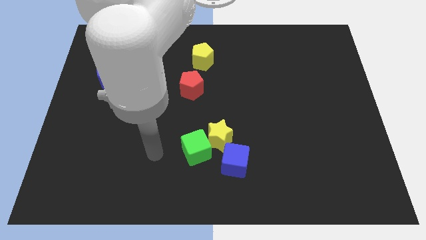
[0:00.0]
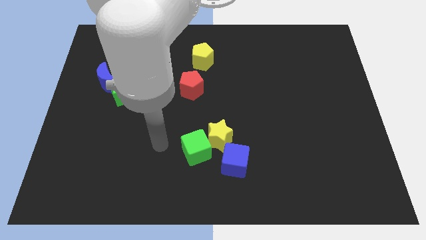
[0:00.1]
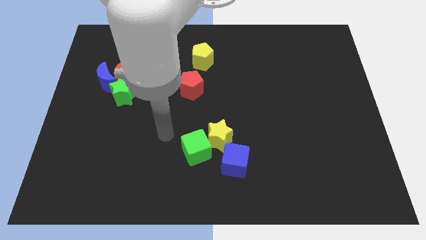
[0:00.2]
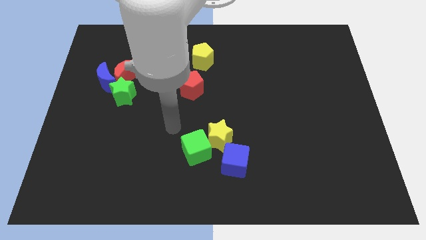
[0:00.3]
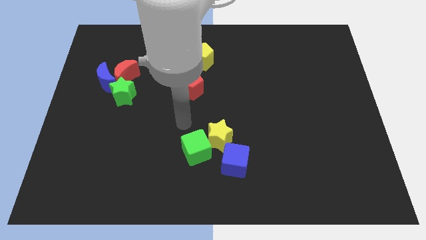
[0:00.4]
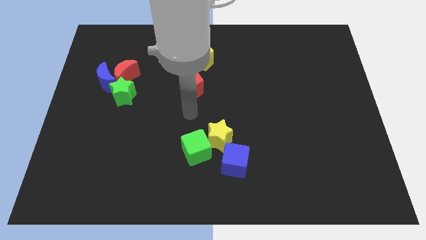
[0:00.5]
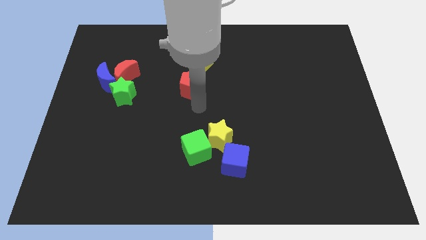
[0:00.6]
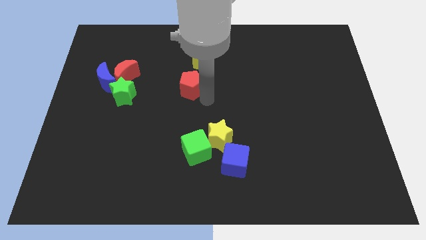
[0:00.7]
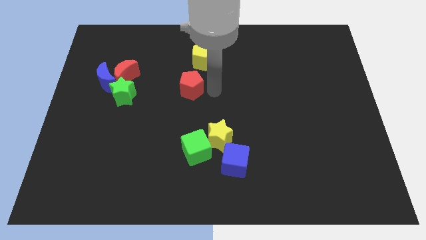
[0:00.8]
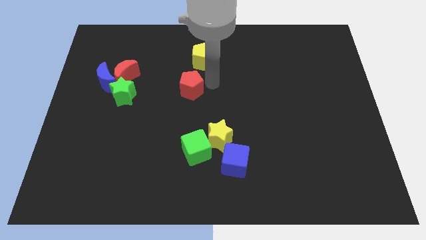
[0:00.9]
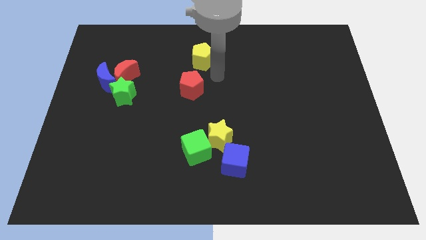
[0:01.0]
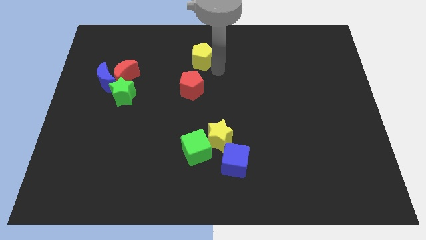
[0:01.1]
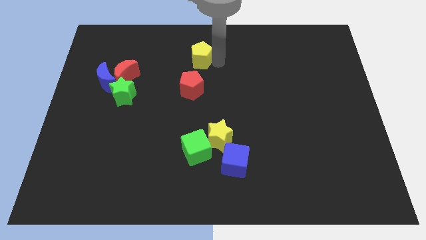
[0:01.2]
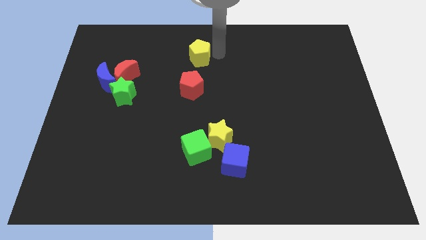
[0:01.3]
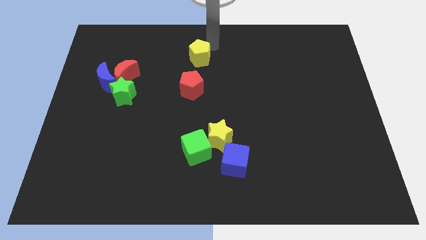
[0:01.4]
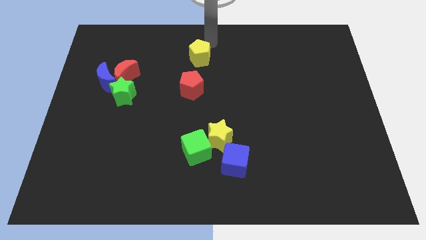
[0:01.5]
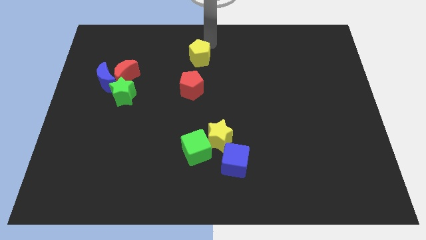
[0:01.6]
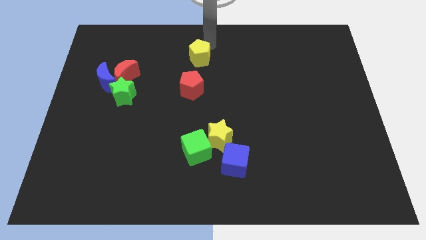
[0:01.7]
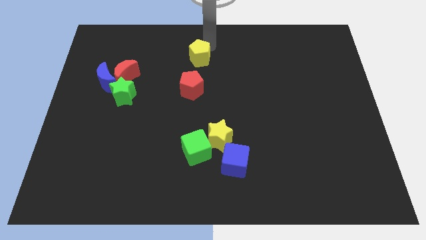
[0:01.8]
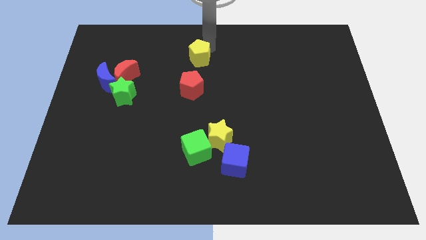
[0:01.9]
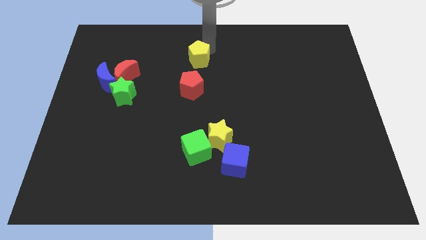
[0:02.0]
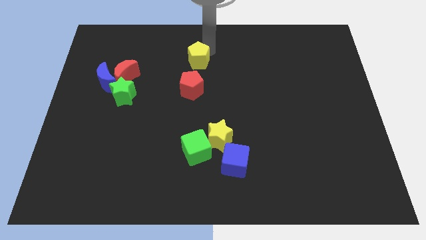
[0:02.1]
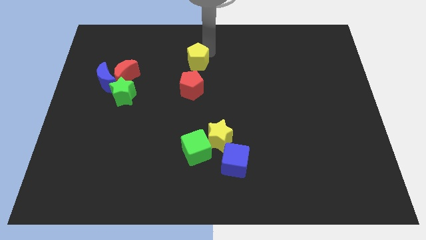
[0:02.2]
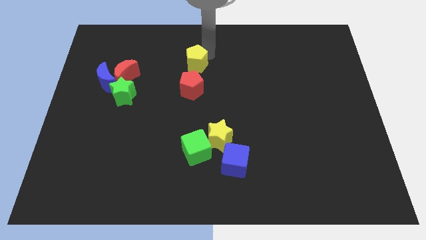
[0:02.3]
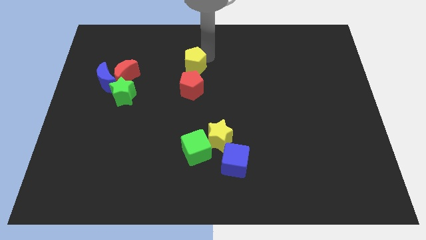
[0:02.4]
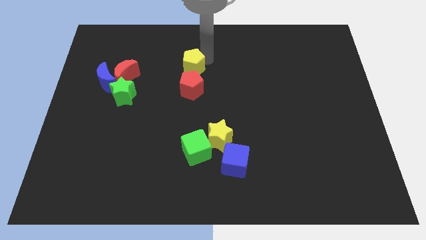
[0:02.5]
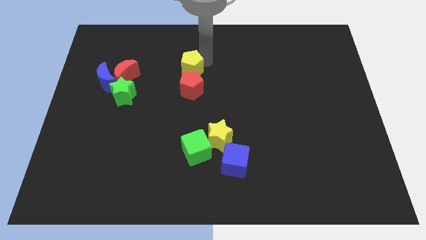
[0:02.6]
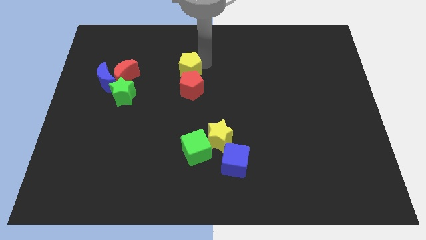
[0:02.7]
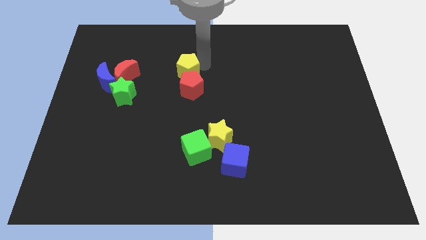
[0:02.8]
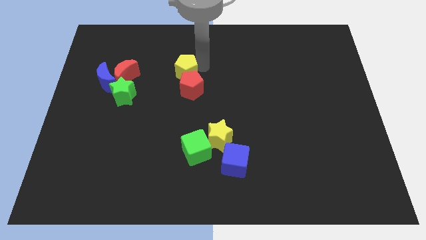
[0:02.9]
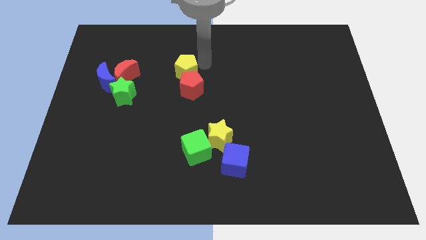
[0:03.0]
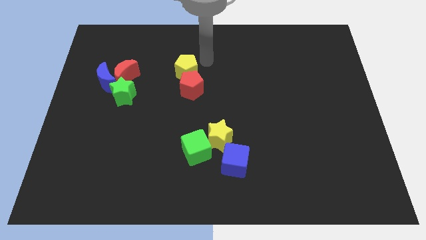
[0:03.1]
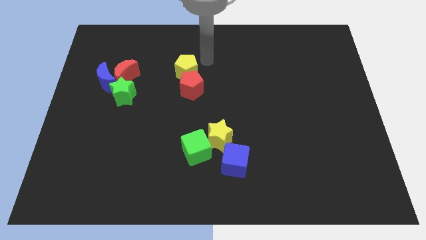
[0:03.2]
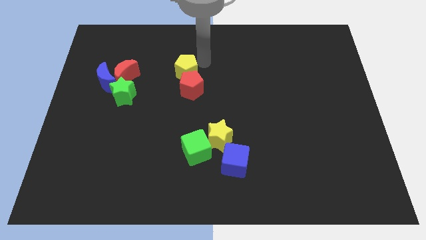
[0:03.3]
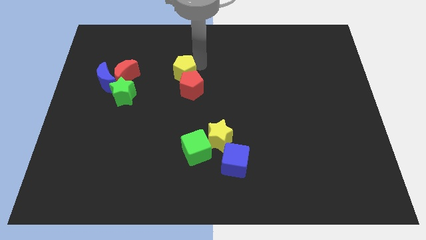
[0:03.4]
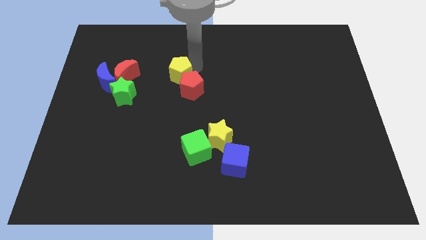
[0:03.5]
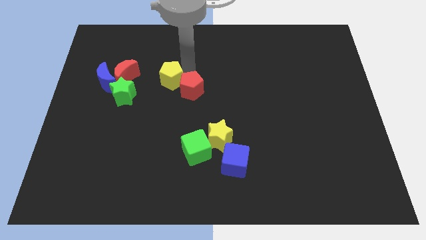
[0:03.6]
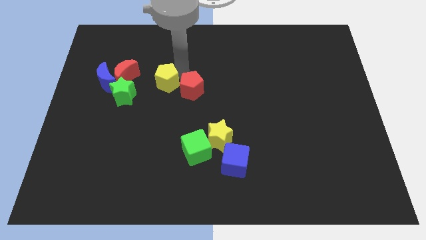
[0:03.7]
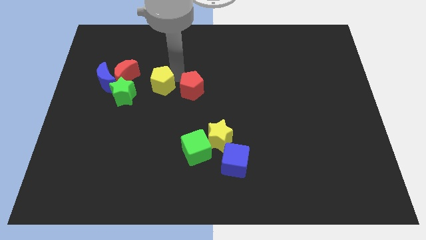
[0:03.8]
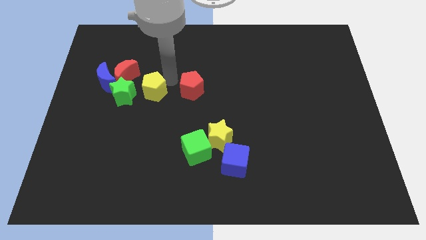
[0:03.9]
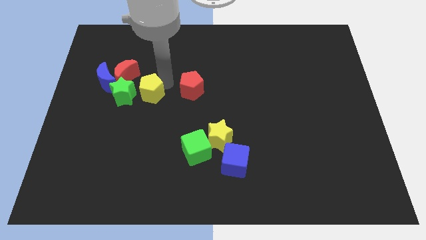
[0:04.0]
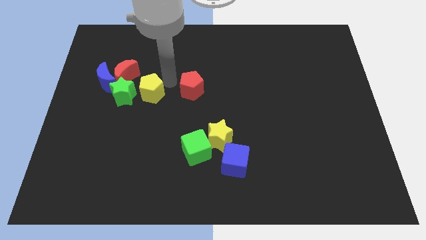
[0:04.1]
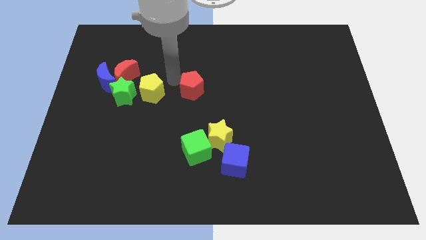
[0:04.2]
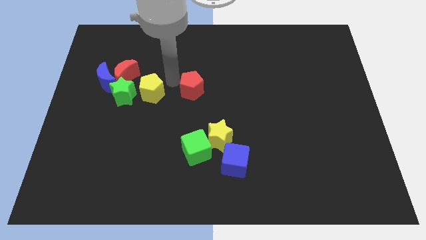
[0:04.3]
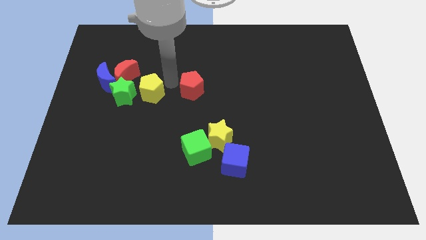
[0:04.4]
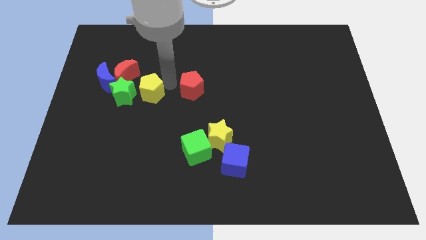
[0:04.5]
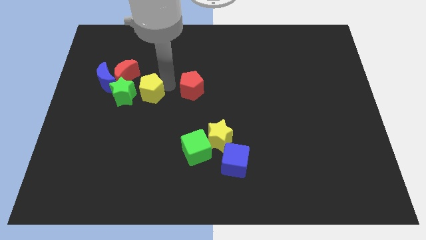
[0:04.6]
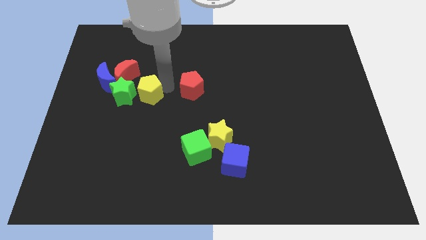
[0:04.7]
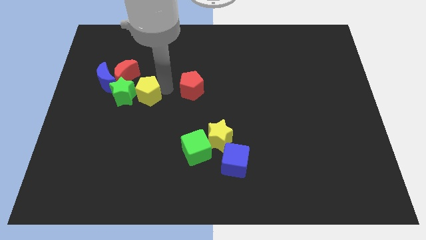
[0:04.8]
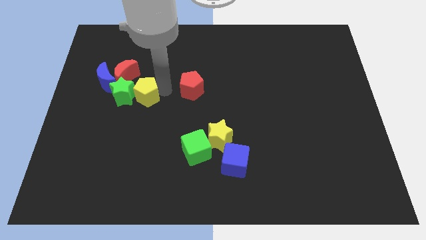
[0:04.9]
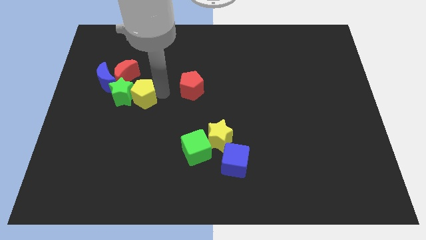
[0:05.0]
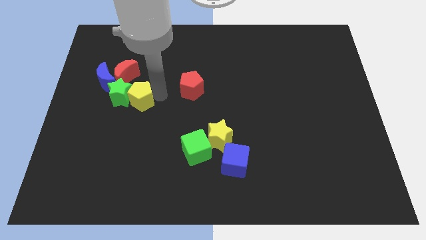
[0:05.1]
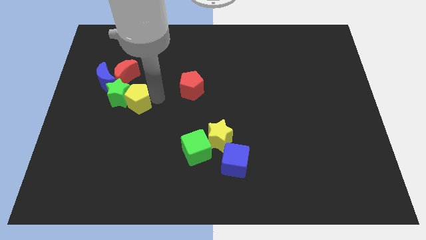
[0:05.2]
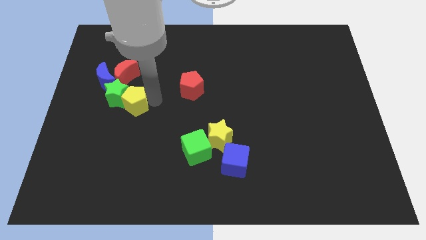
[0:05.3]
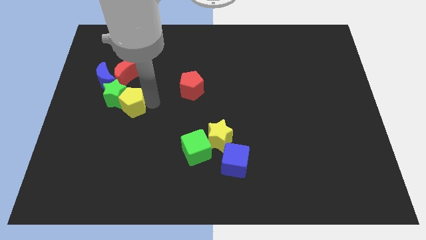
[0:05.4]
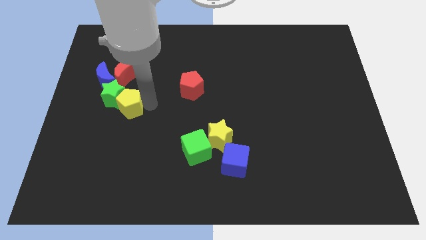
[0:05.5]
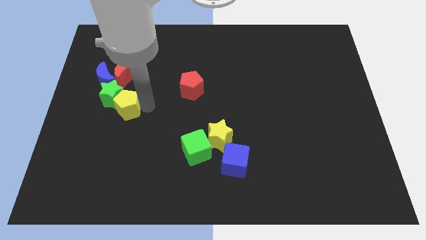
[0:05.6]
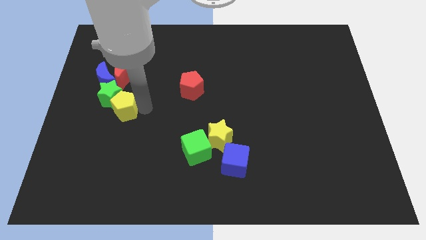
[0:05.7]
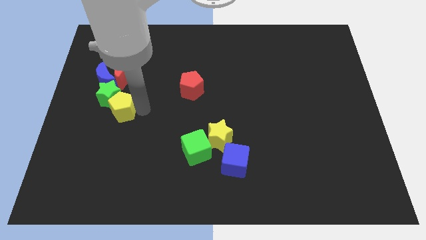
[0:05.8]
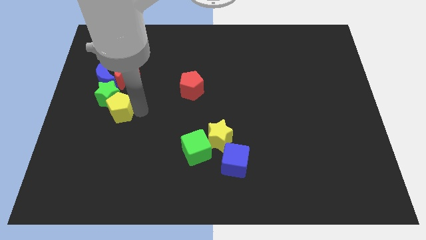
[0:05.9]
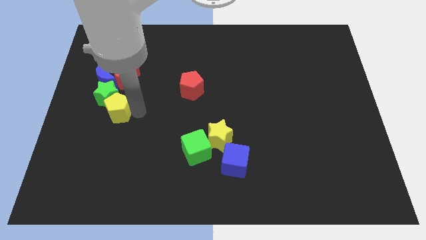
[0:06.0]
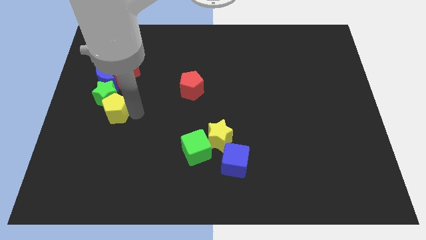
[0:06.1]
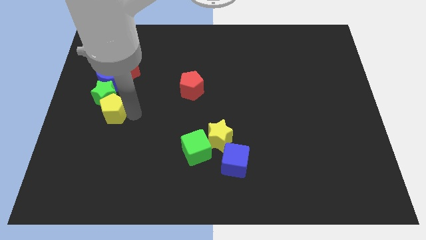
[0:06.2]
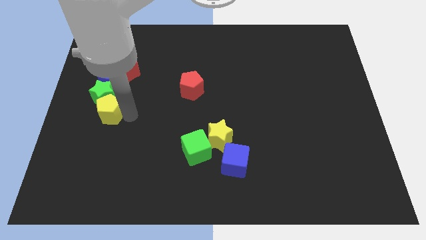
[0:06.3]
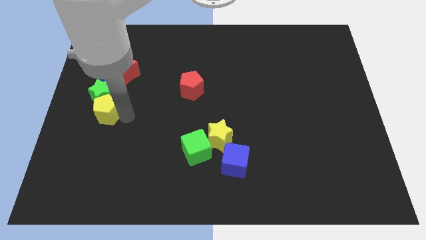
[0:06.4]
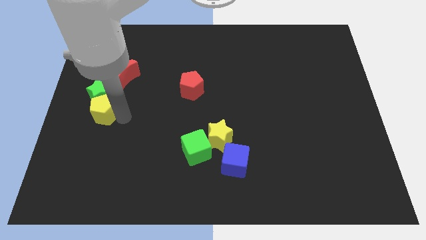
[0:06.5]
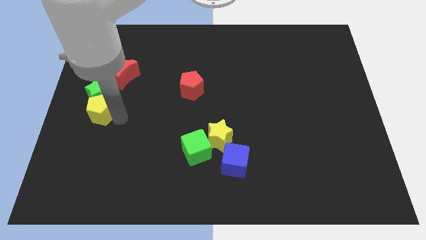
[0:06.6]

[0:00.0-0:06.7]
put the yellow pentagon to the left side

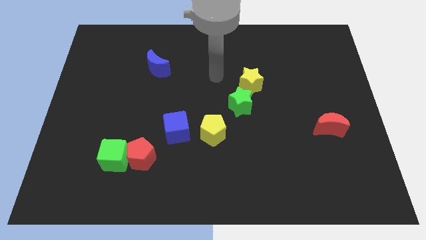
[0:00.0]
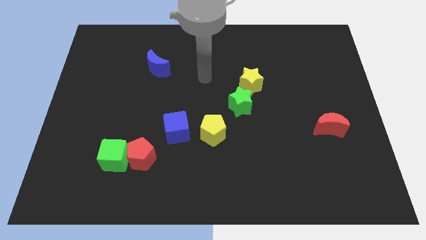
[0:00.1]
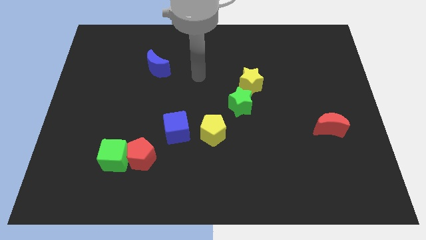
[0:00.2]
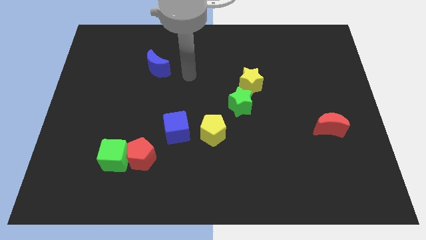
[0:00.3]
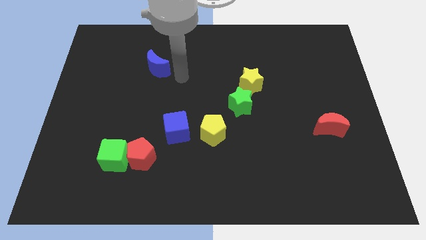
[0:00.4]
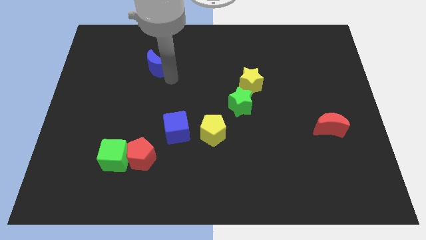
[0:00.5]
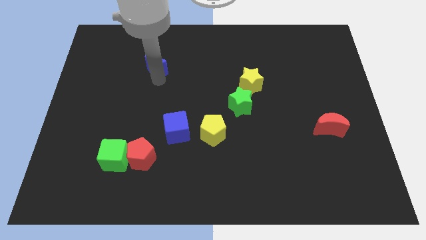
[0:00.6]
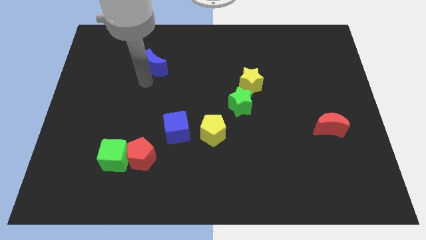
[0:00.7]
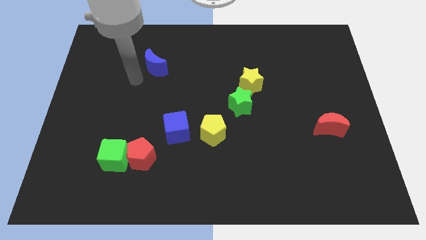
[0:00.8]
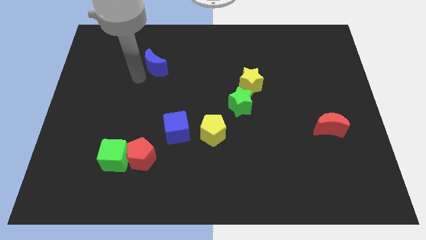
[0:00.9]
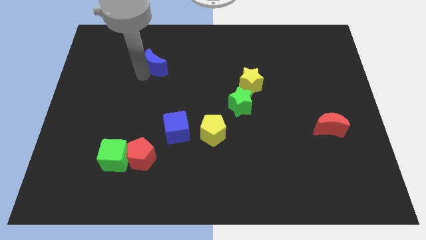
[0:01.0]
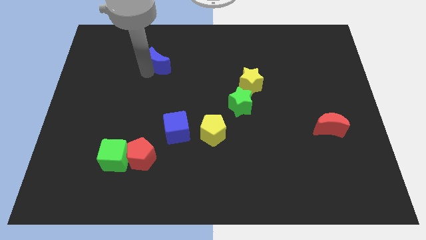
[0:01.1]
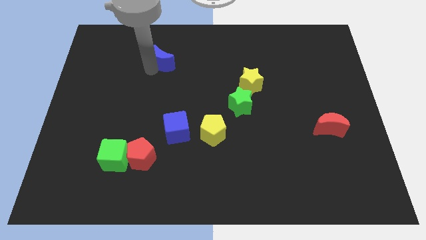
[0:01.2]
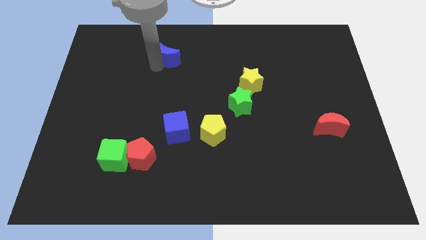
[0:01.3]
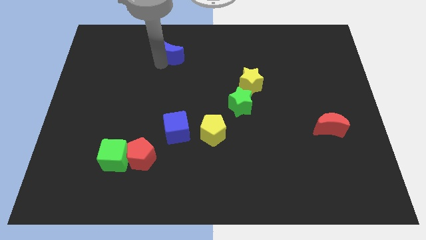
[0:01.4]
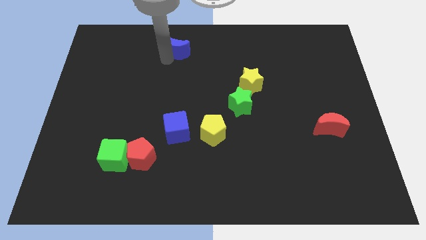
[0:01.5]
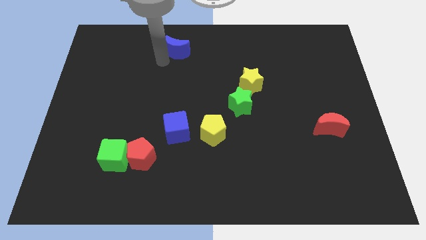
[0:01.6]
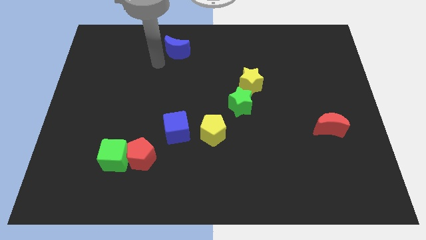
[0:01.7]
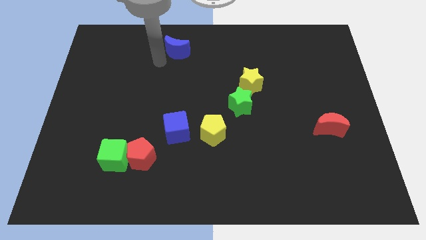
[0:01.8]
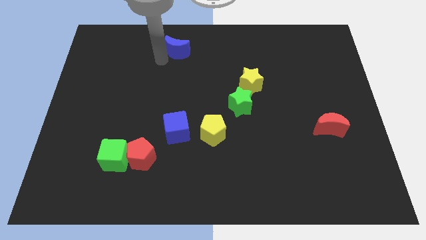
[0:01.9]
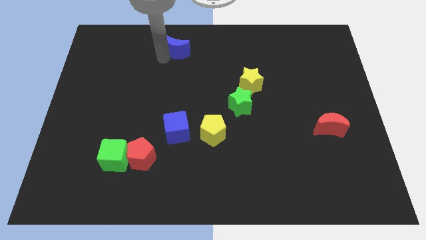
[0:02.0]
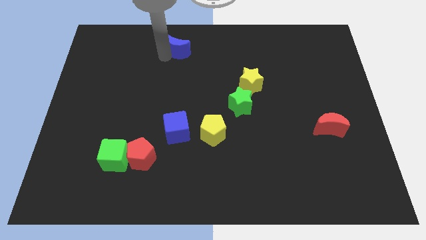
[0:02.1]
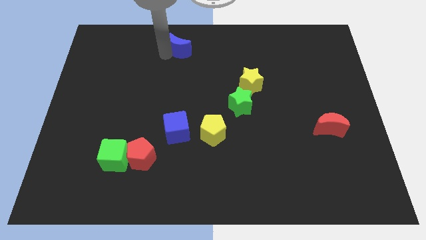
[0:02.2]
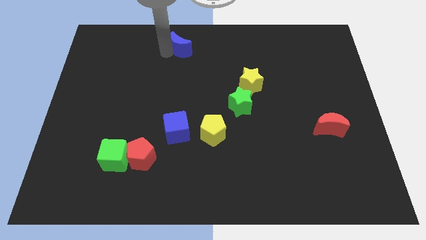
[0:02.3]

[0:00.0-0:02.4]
push the blue moon to the top
